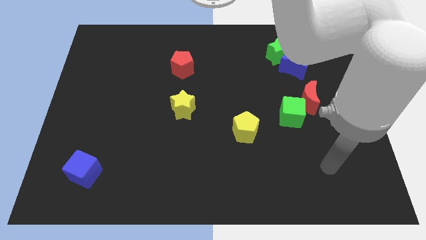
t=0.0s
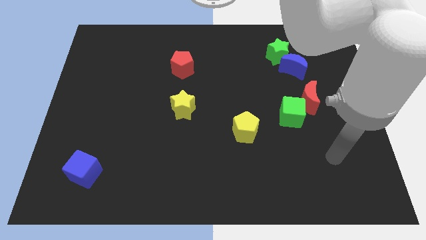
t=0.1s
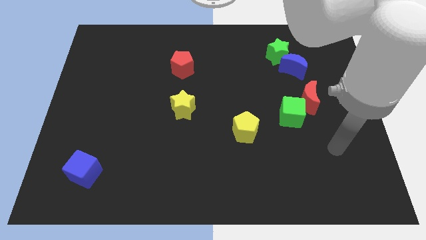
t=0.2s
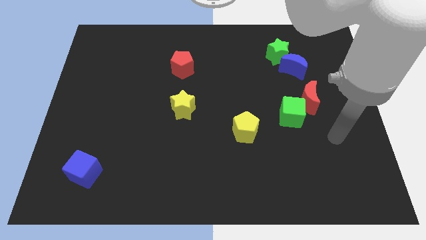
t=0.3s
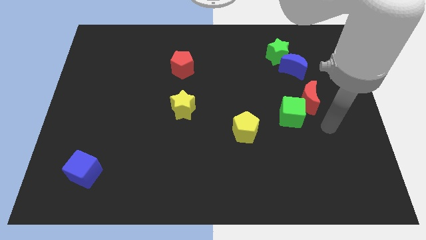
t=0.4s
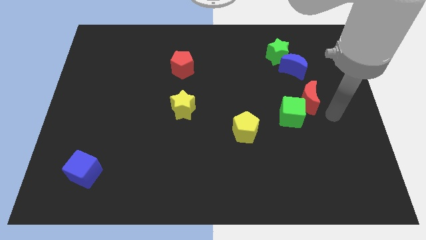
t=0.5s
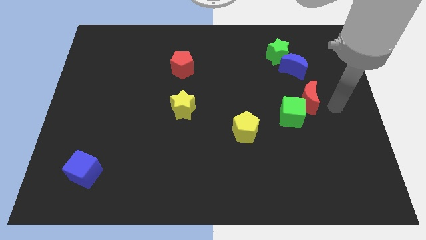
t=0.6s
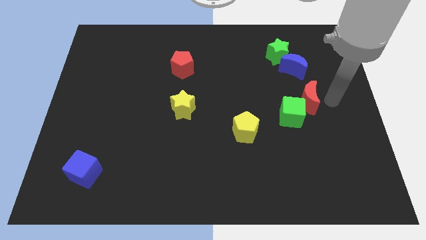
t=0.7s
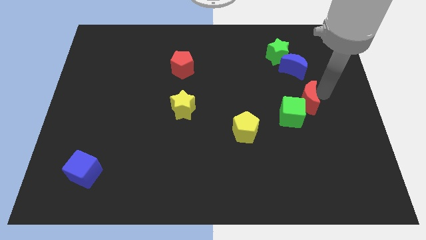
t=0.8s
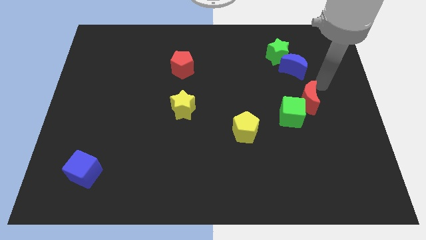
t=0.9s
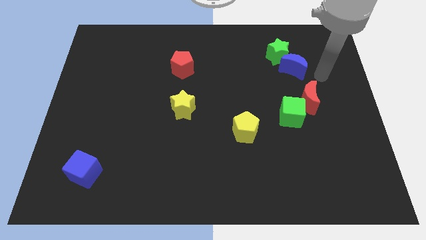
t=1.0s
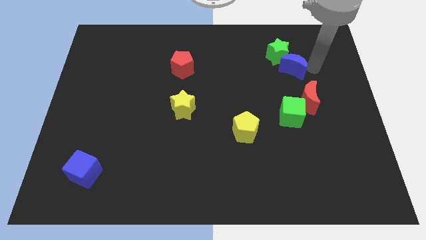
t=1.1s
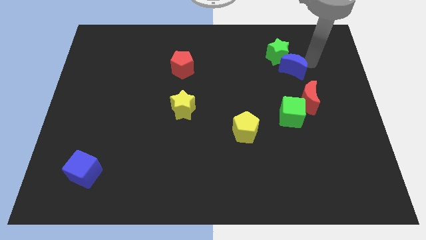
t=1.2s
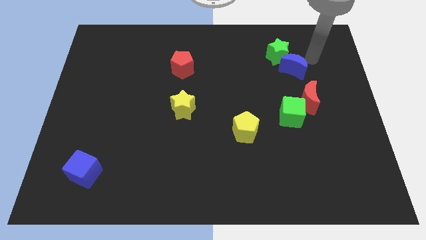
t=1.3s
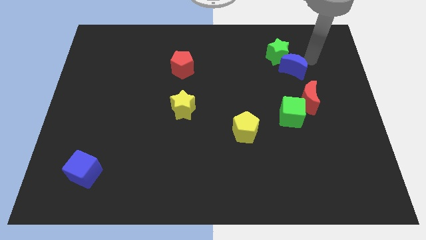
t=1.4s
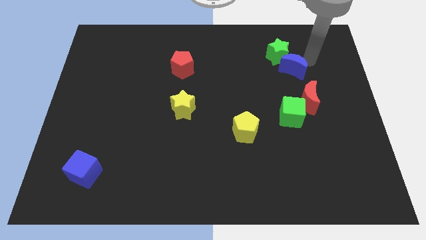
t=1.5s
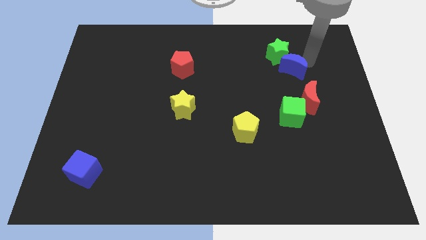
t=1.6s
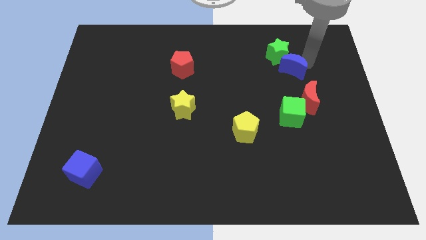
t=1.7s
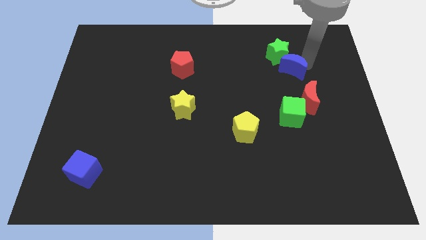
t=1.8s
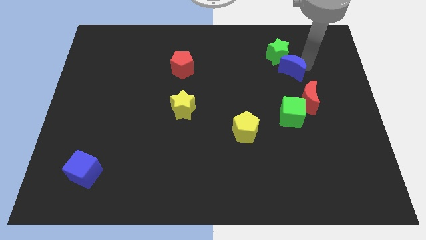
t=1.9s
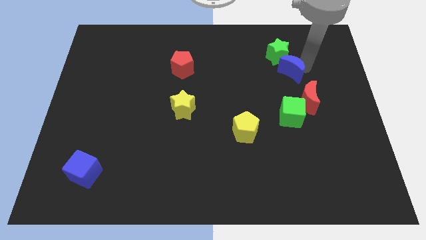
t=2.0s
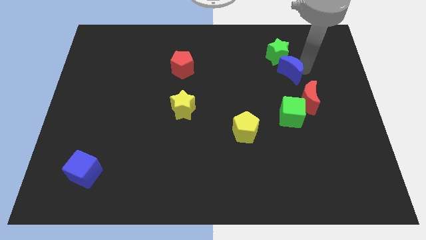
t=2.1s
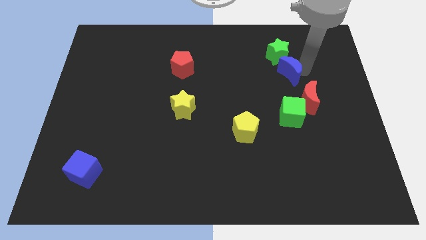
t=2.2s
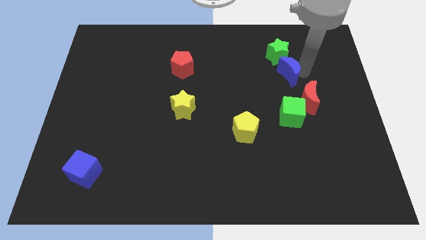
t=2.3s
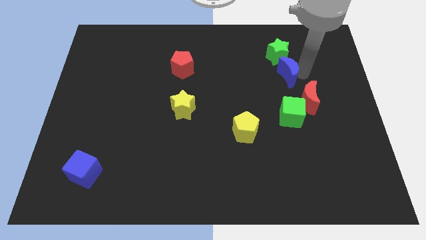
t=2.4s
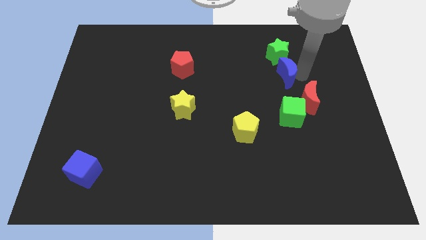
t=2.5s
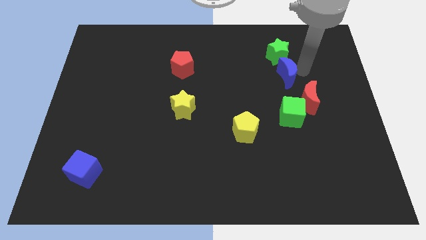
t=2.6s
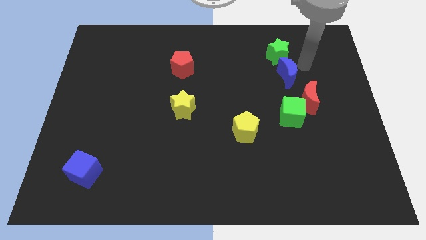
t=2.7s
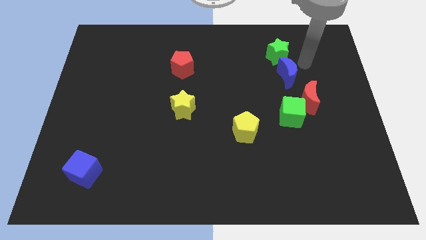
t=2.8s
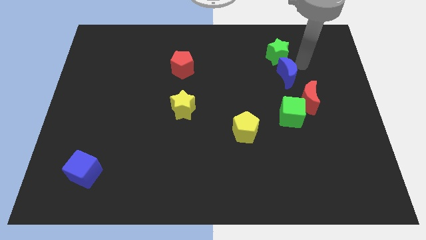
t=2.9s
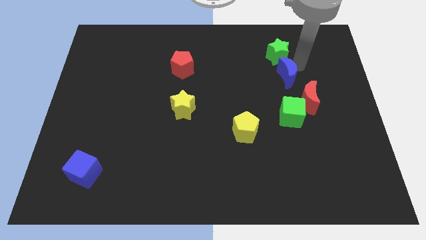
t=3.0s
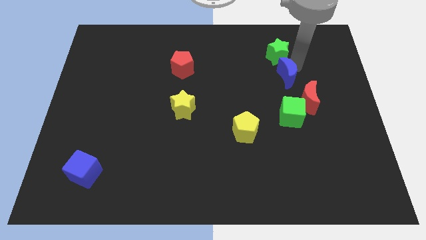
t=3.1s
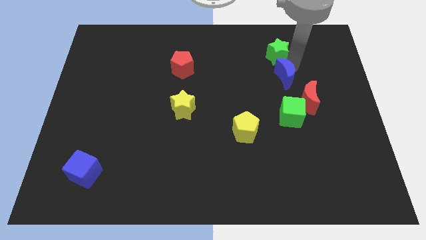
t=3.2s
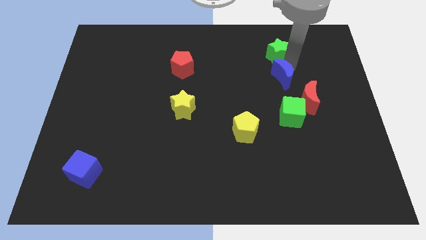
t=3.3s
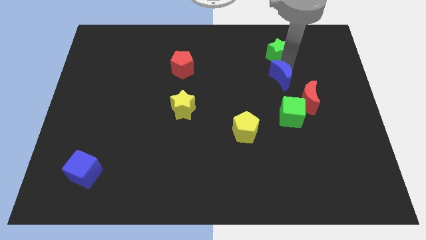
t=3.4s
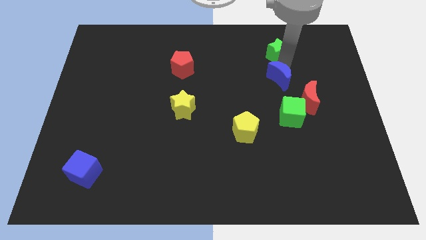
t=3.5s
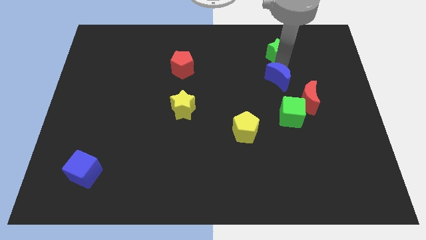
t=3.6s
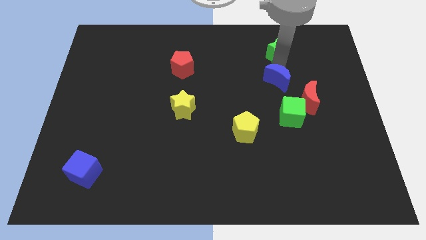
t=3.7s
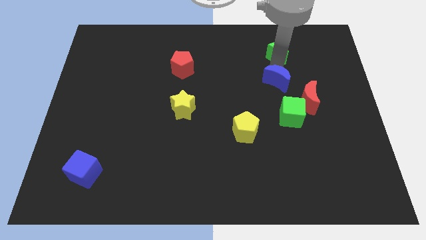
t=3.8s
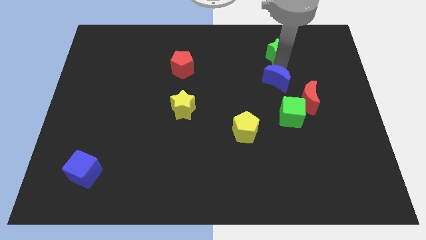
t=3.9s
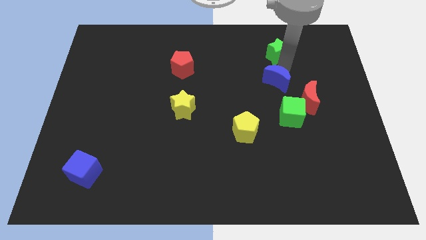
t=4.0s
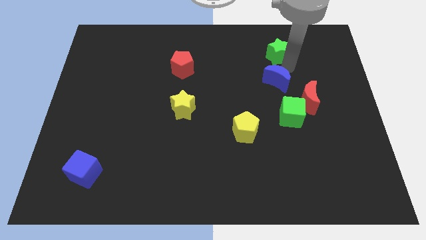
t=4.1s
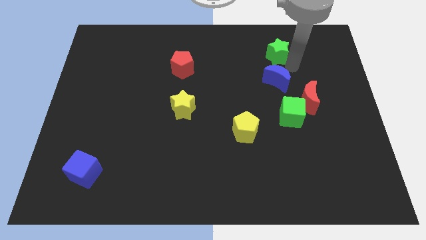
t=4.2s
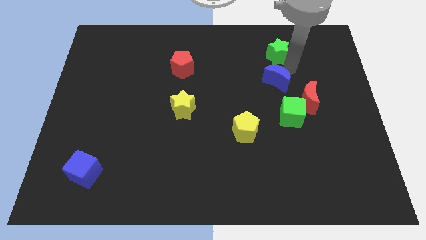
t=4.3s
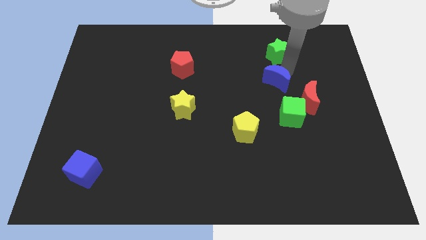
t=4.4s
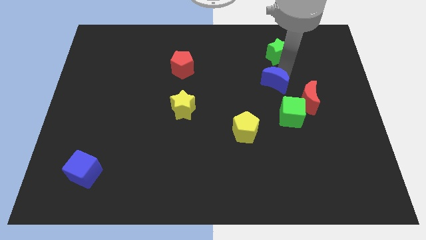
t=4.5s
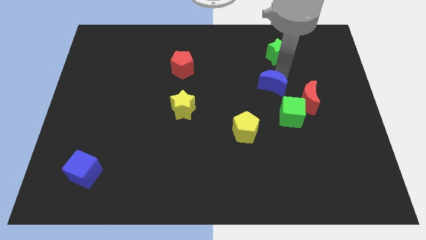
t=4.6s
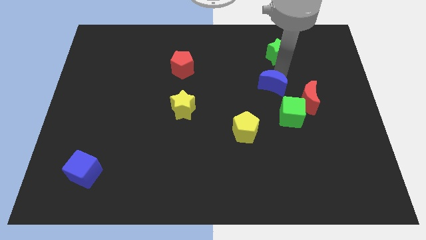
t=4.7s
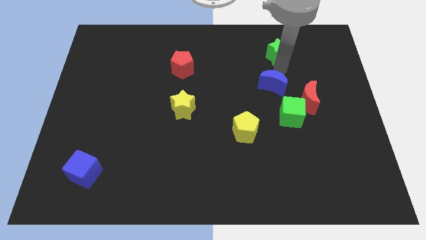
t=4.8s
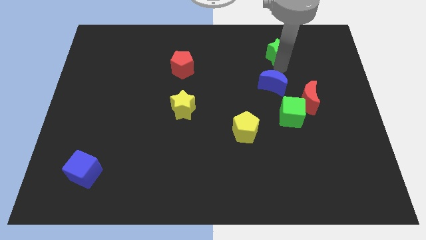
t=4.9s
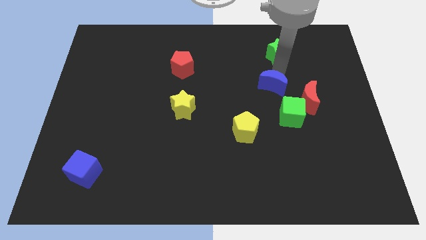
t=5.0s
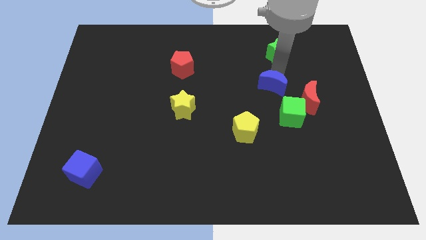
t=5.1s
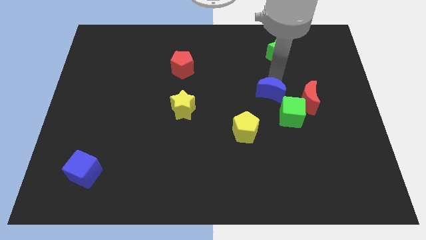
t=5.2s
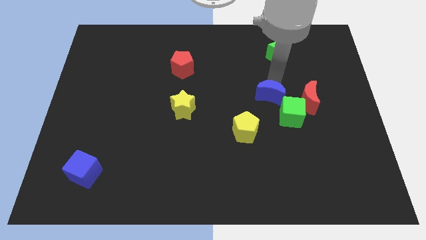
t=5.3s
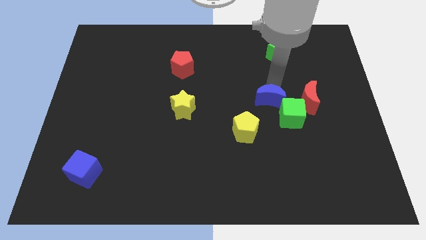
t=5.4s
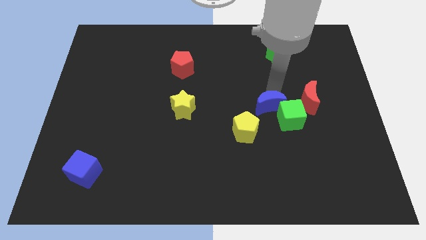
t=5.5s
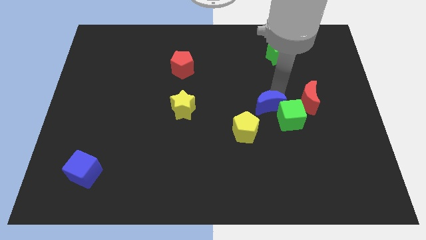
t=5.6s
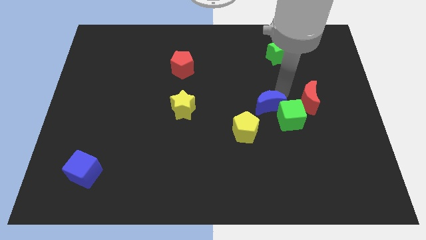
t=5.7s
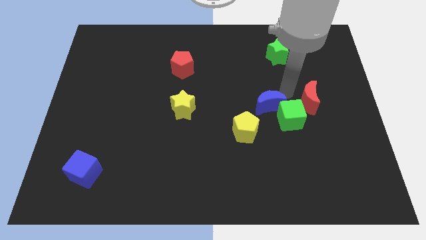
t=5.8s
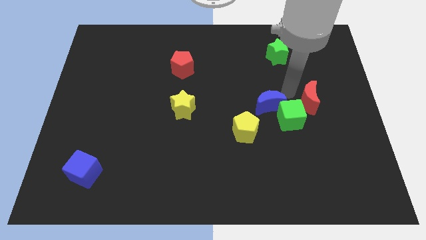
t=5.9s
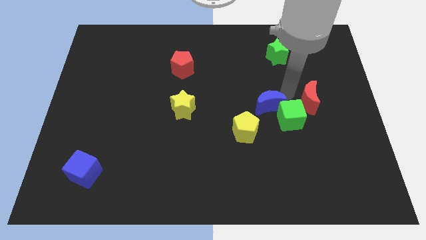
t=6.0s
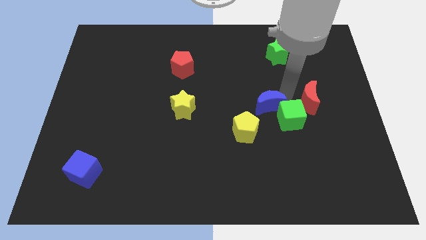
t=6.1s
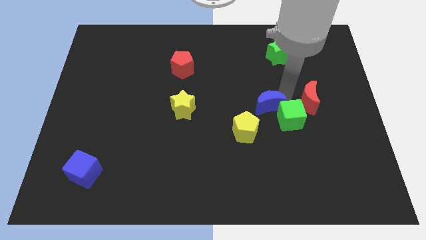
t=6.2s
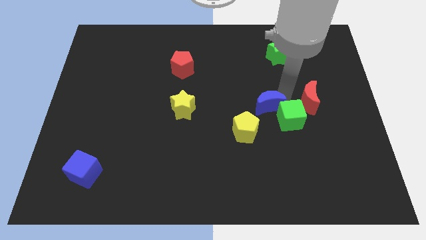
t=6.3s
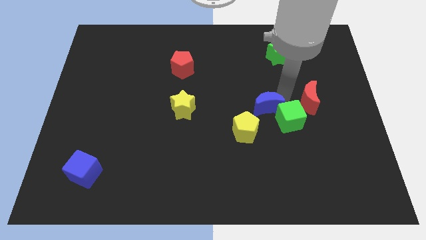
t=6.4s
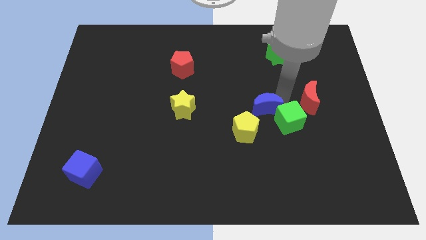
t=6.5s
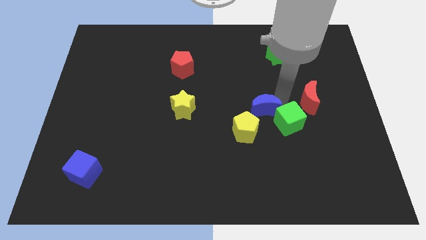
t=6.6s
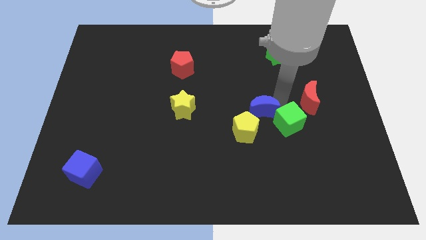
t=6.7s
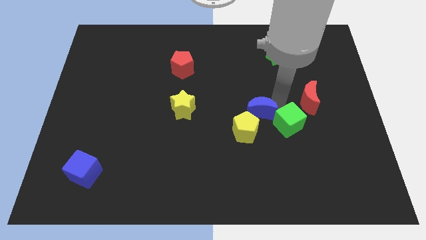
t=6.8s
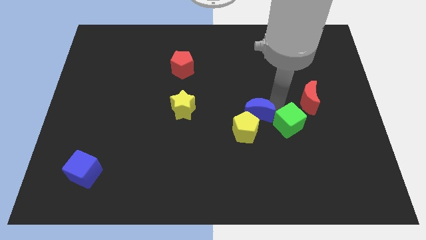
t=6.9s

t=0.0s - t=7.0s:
push the blue moon to the yellow pentagon

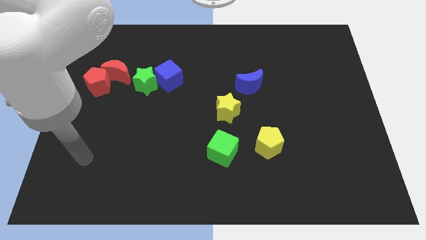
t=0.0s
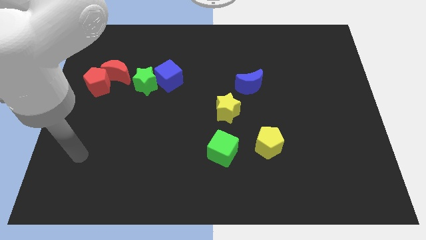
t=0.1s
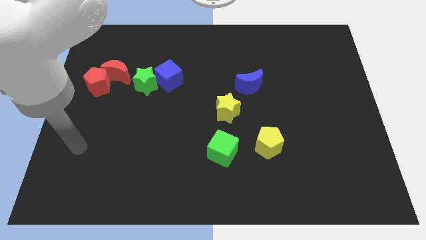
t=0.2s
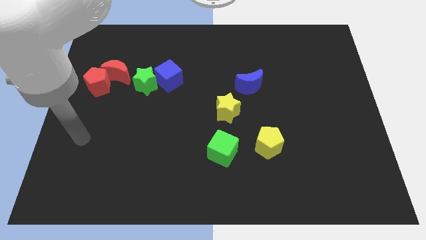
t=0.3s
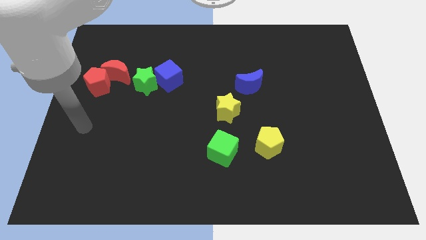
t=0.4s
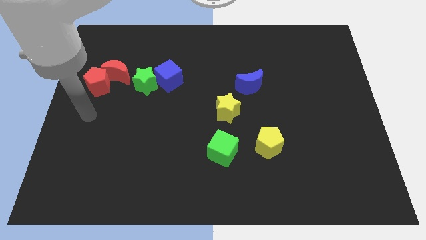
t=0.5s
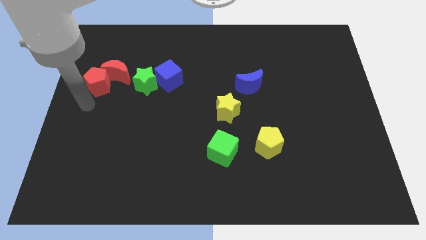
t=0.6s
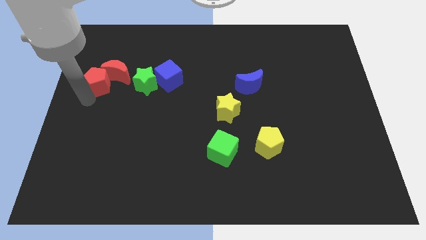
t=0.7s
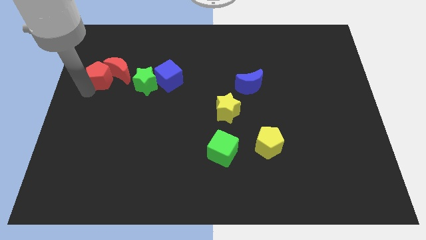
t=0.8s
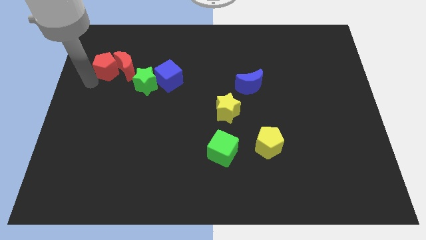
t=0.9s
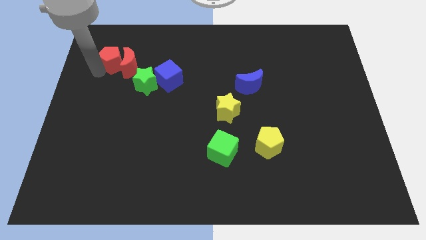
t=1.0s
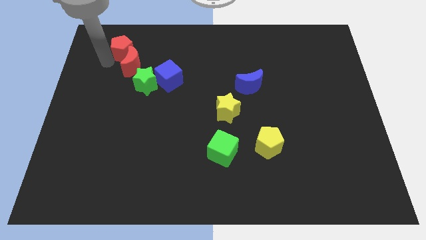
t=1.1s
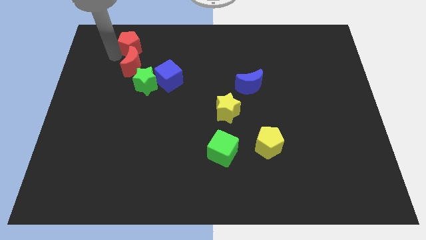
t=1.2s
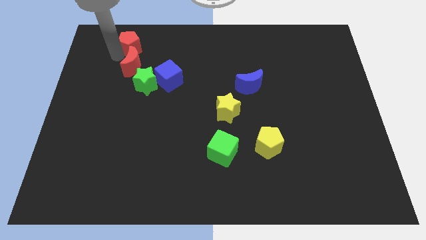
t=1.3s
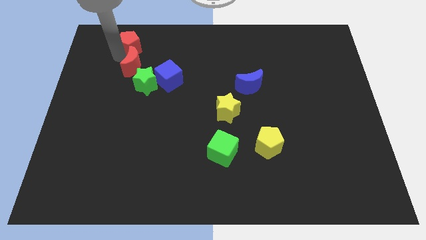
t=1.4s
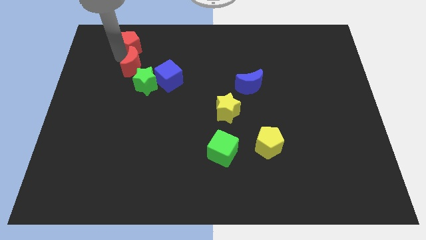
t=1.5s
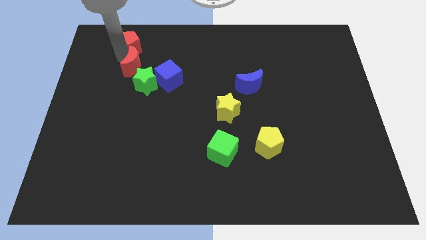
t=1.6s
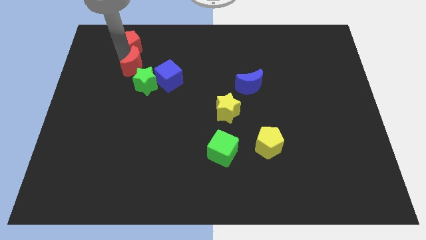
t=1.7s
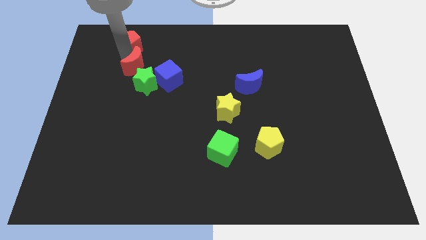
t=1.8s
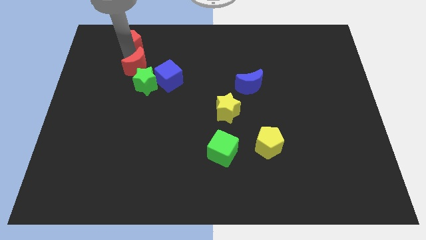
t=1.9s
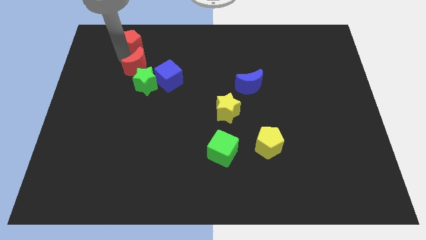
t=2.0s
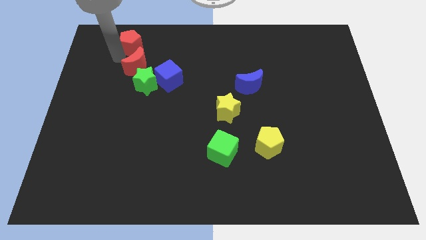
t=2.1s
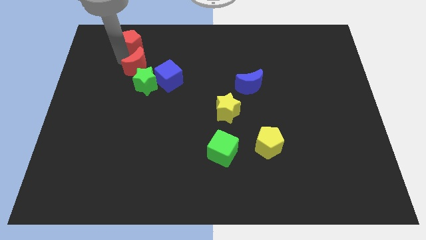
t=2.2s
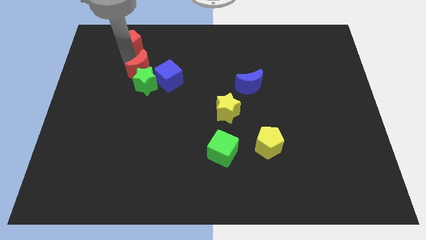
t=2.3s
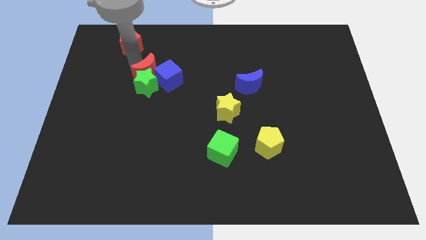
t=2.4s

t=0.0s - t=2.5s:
put the red moon to the blue cube
